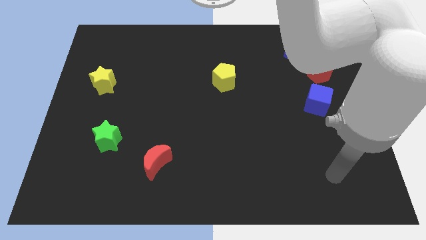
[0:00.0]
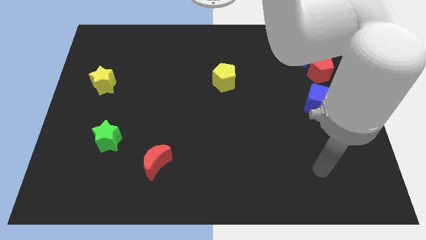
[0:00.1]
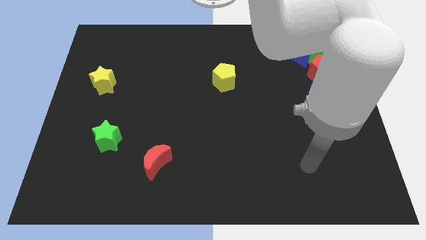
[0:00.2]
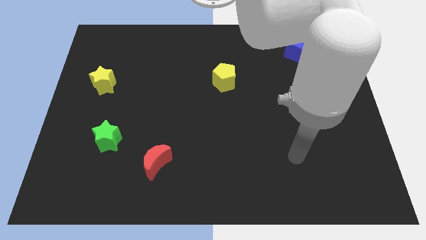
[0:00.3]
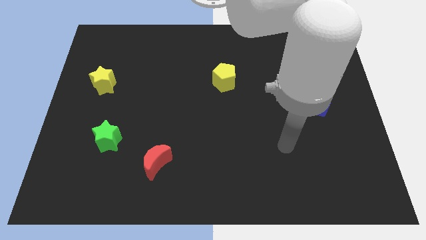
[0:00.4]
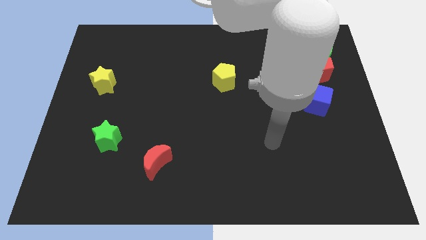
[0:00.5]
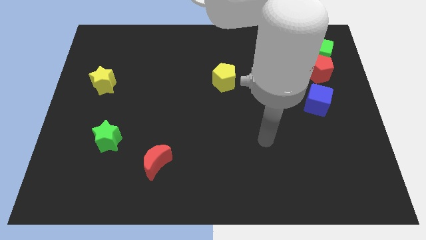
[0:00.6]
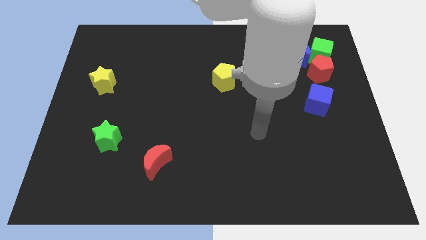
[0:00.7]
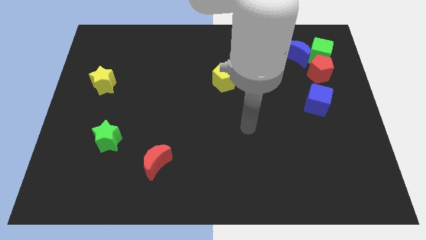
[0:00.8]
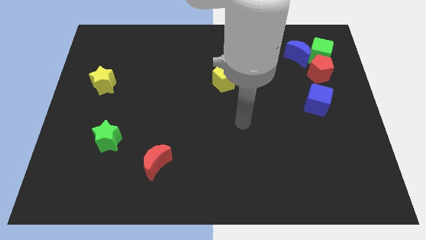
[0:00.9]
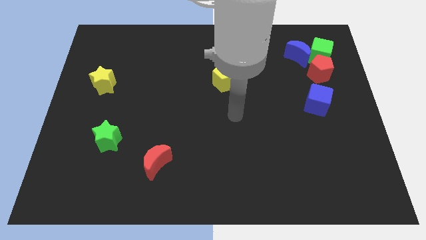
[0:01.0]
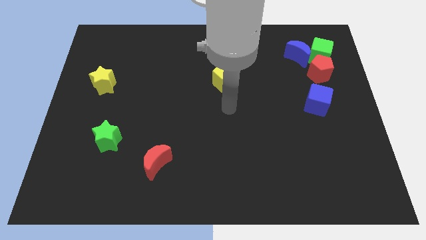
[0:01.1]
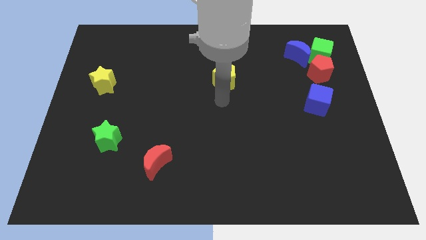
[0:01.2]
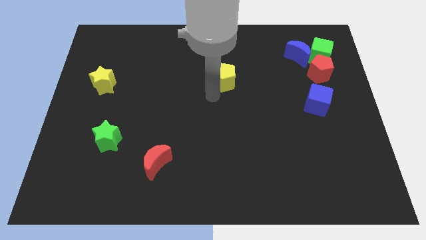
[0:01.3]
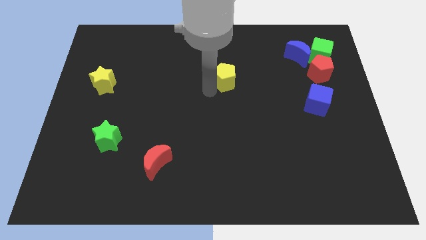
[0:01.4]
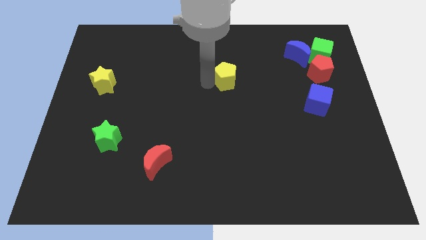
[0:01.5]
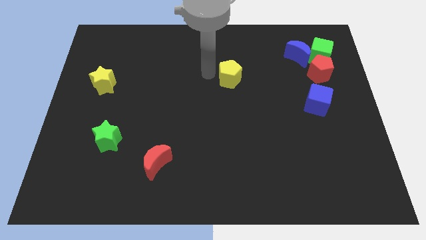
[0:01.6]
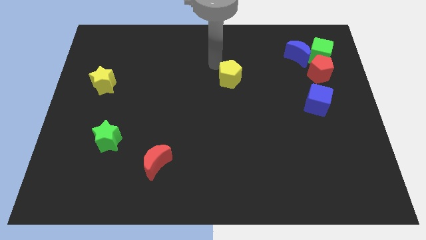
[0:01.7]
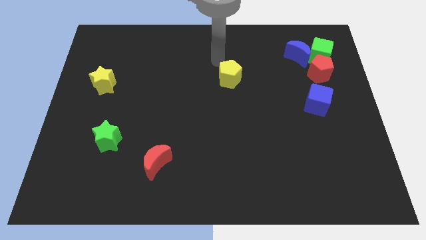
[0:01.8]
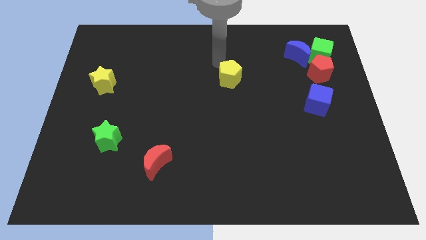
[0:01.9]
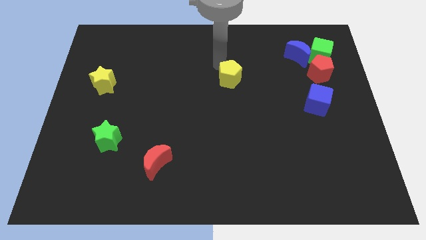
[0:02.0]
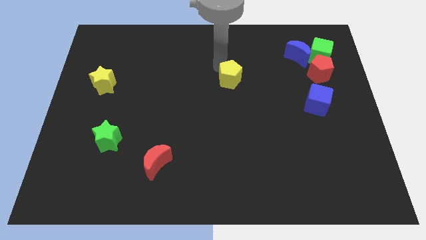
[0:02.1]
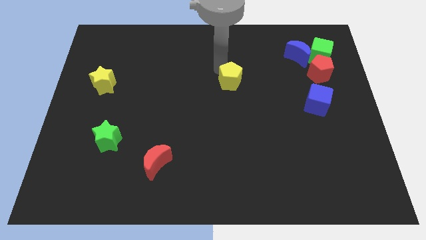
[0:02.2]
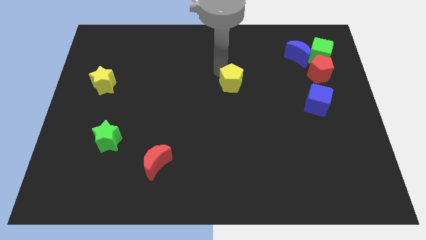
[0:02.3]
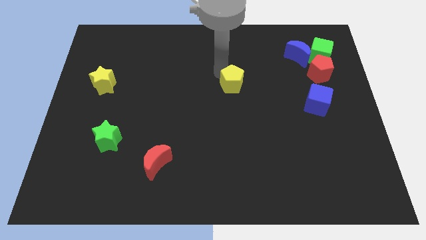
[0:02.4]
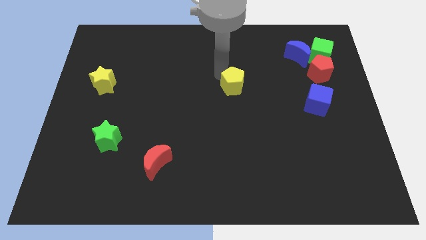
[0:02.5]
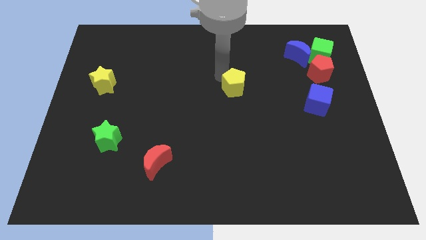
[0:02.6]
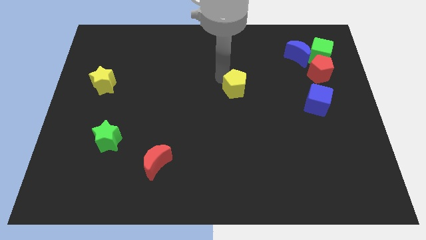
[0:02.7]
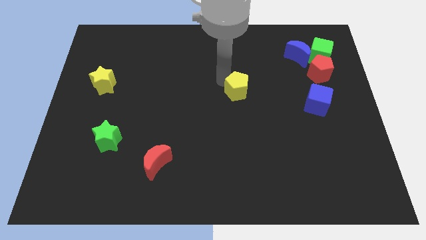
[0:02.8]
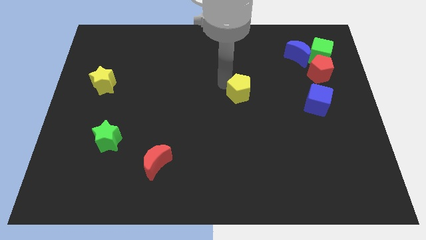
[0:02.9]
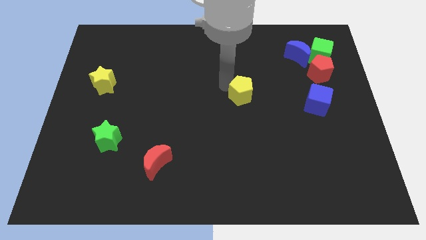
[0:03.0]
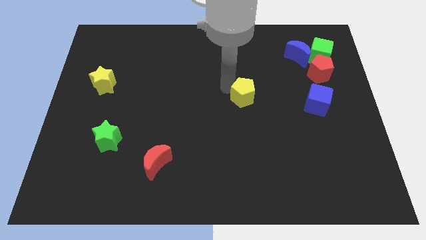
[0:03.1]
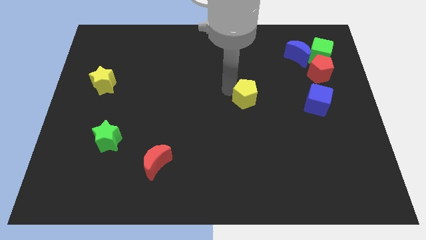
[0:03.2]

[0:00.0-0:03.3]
push the yellow pentagon downwards and right somewhat

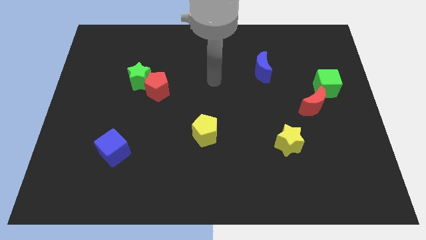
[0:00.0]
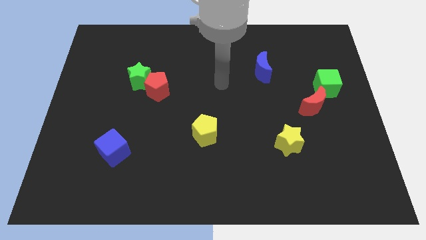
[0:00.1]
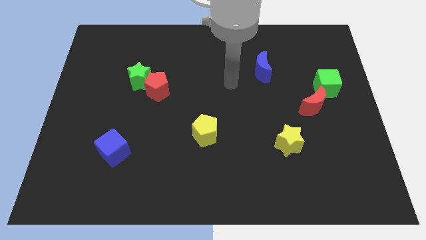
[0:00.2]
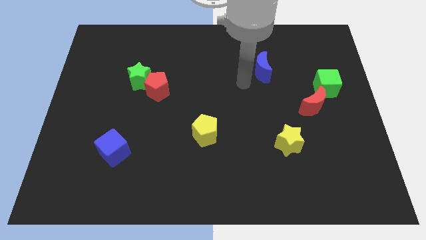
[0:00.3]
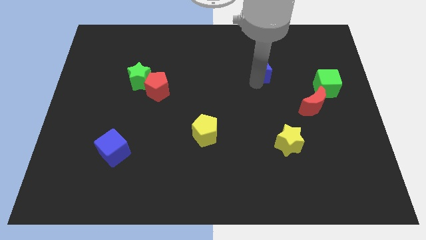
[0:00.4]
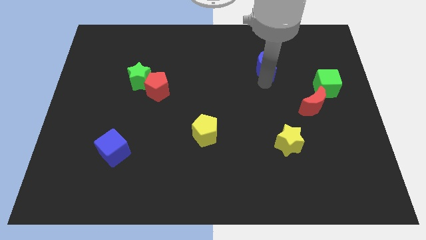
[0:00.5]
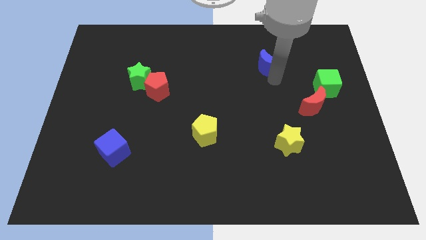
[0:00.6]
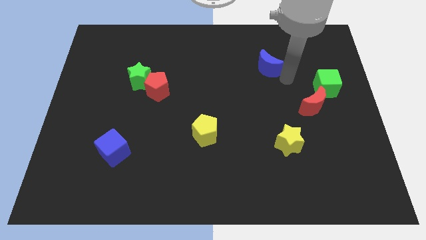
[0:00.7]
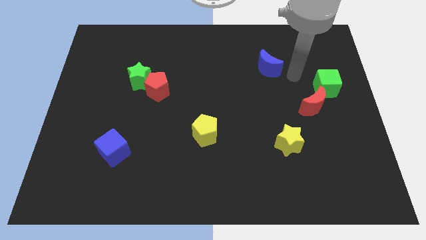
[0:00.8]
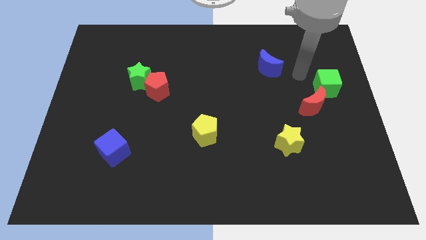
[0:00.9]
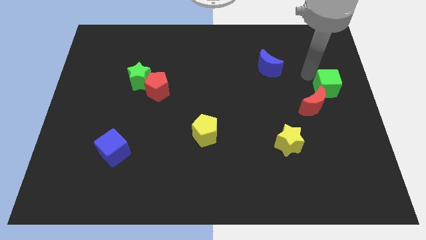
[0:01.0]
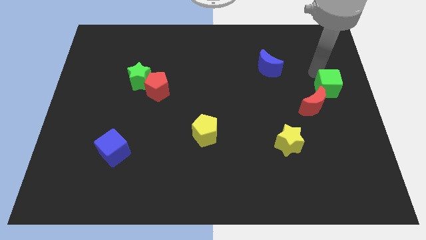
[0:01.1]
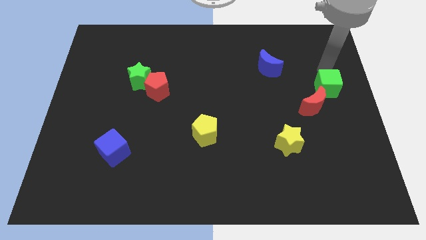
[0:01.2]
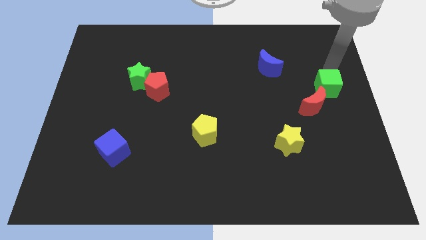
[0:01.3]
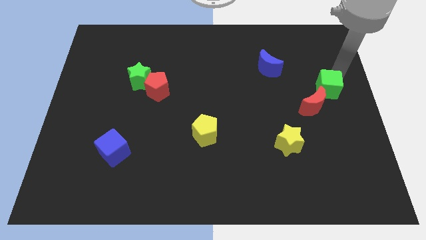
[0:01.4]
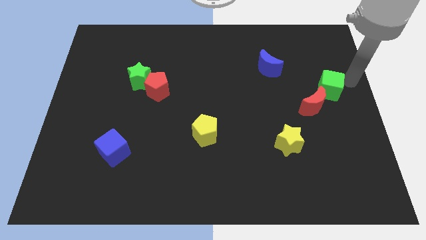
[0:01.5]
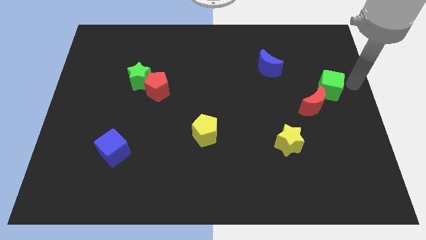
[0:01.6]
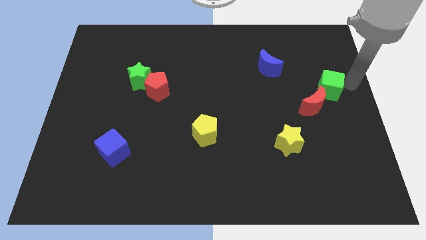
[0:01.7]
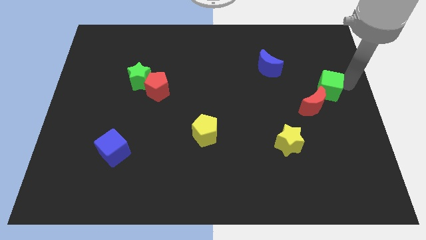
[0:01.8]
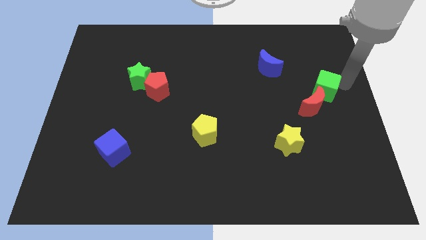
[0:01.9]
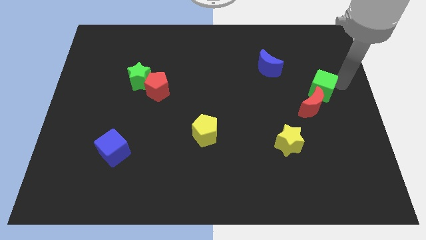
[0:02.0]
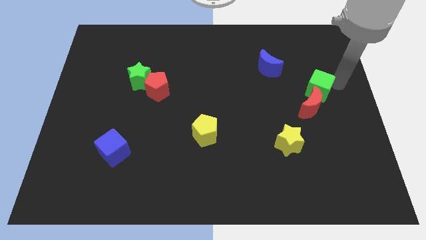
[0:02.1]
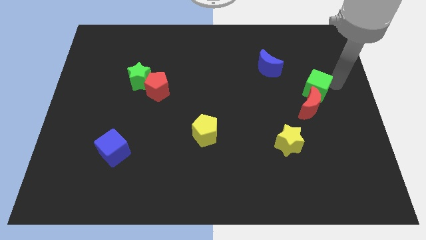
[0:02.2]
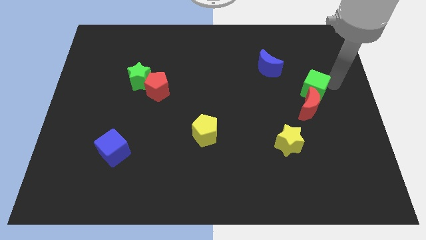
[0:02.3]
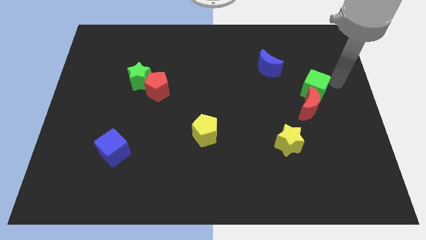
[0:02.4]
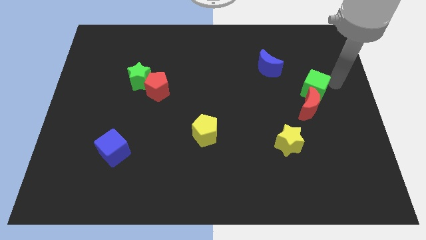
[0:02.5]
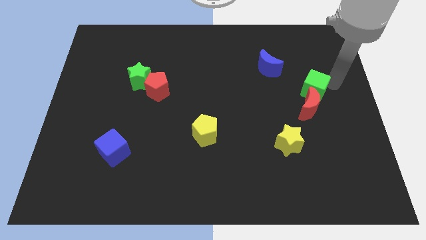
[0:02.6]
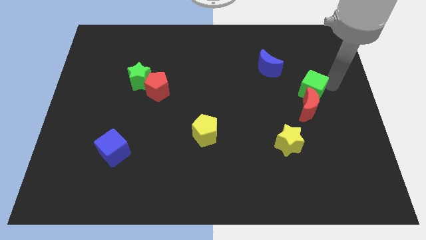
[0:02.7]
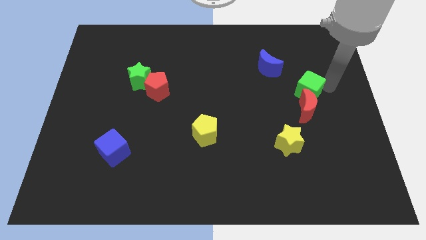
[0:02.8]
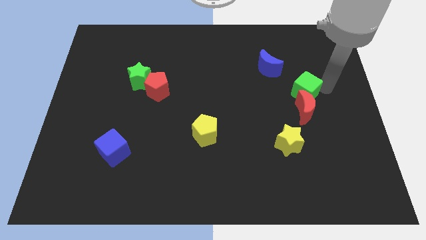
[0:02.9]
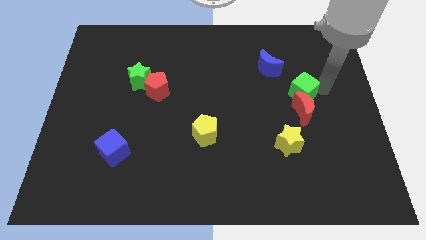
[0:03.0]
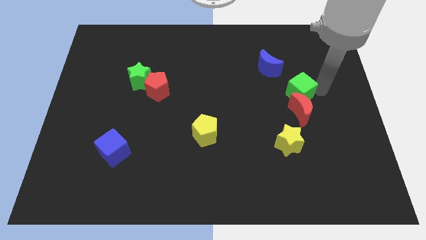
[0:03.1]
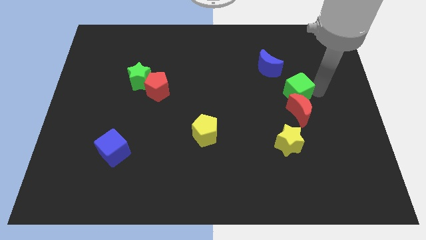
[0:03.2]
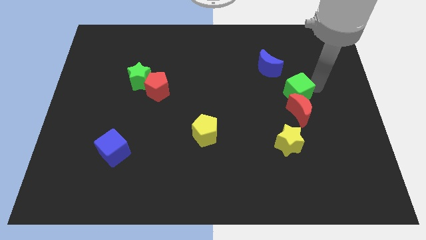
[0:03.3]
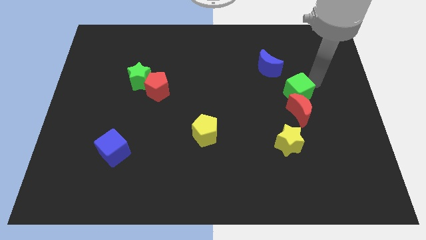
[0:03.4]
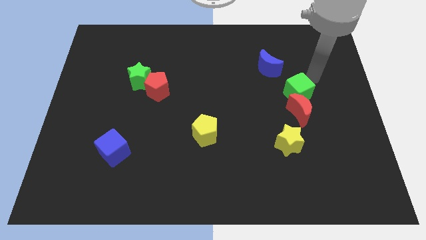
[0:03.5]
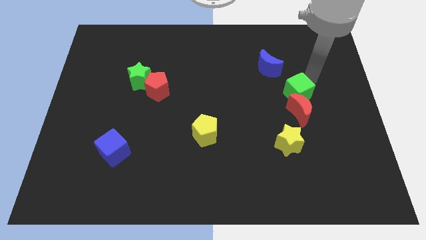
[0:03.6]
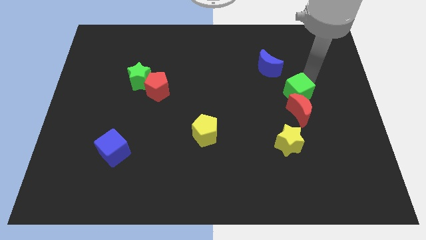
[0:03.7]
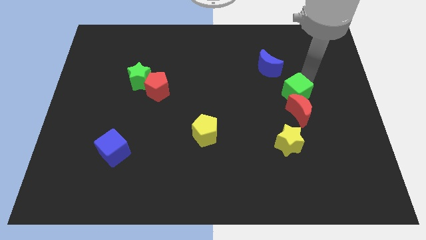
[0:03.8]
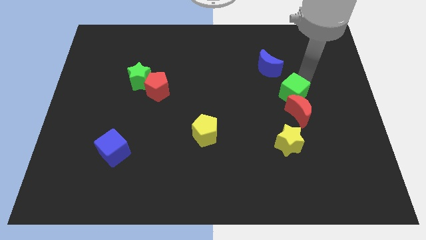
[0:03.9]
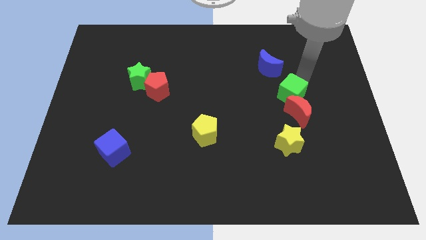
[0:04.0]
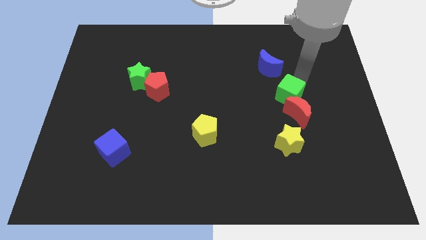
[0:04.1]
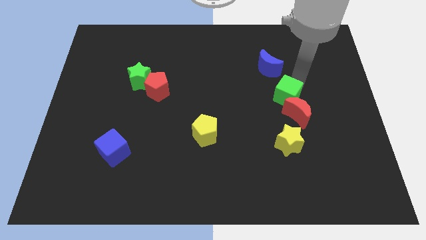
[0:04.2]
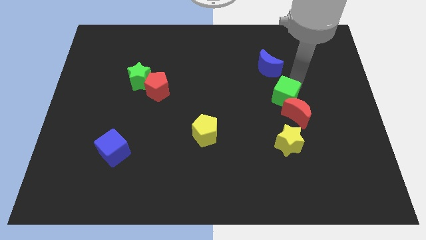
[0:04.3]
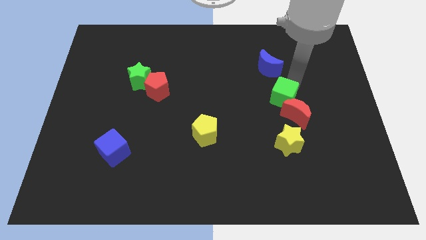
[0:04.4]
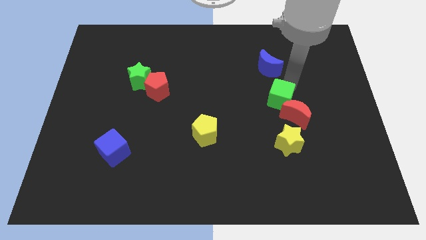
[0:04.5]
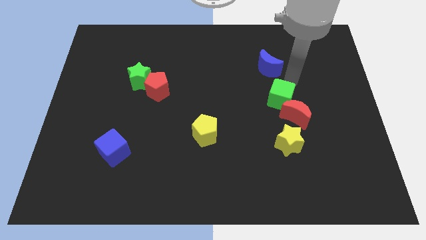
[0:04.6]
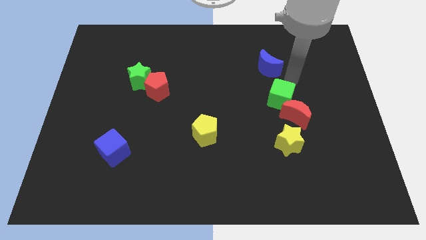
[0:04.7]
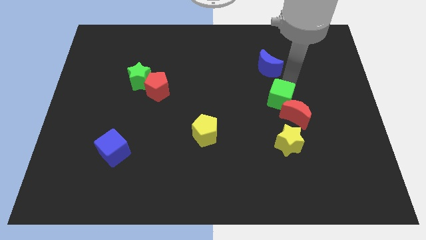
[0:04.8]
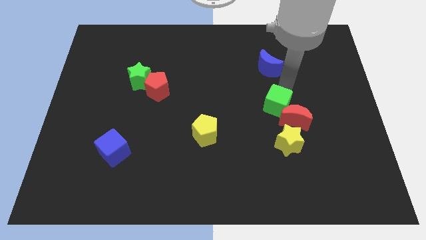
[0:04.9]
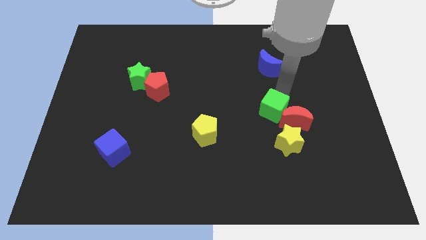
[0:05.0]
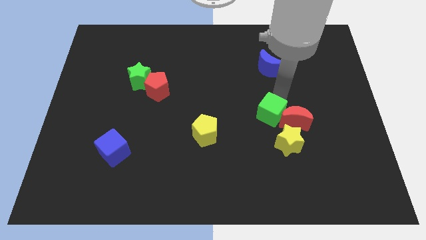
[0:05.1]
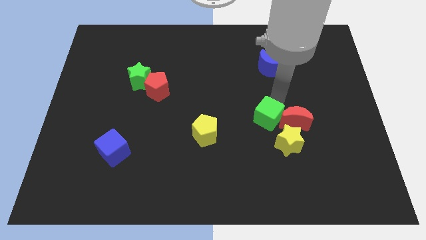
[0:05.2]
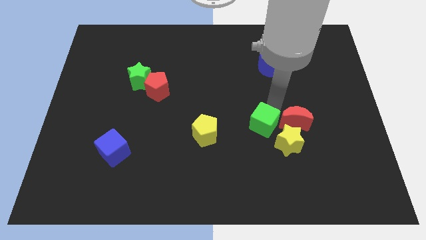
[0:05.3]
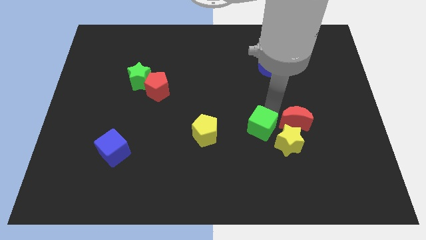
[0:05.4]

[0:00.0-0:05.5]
move the green cube down and left diagonally
